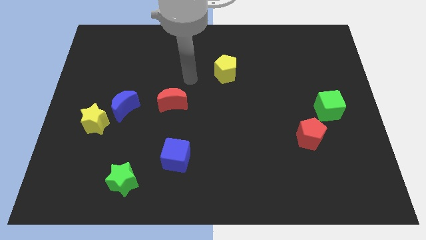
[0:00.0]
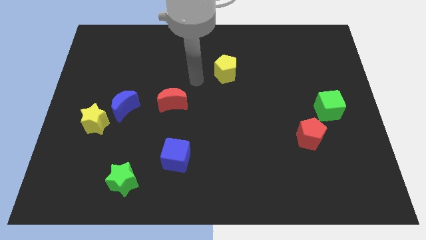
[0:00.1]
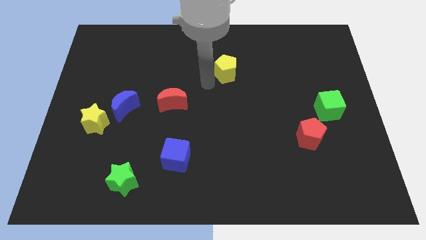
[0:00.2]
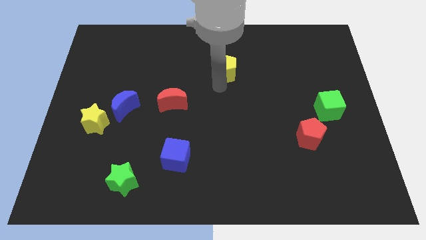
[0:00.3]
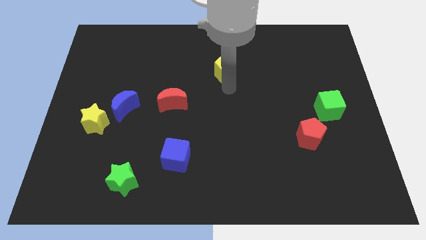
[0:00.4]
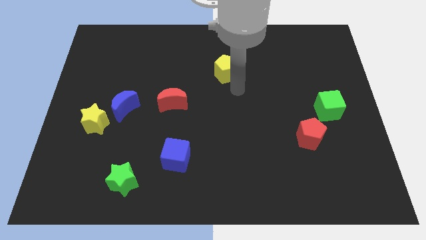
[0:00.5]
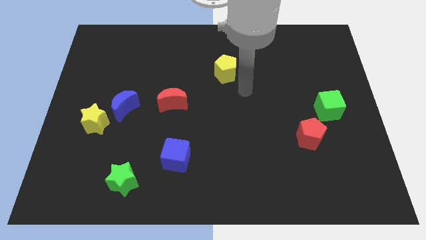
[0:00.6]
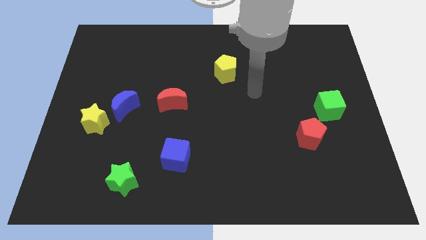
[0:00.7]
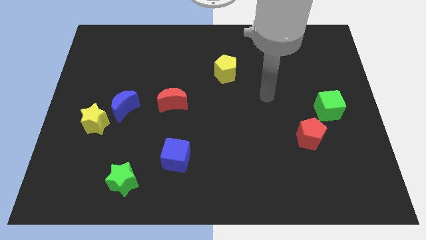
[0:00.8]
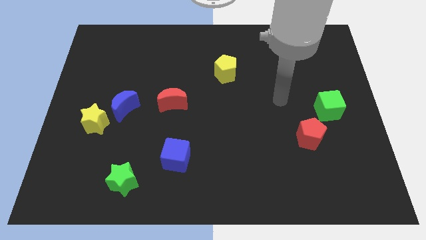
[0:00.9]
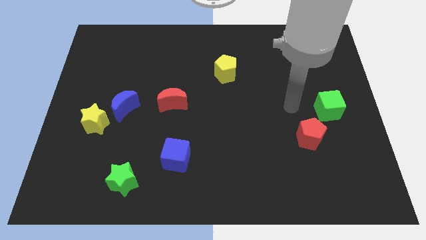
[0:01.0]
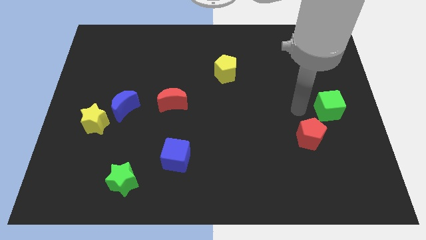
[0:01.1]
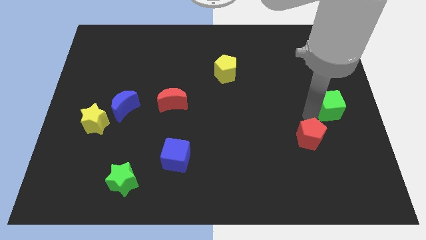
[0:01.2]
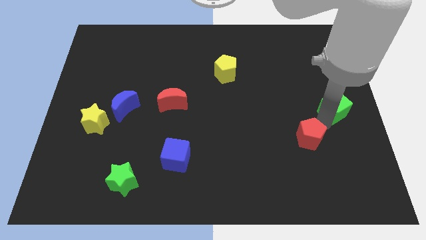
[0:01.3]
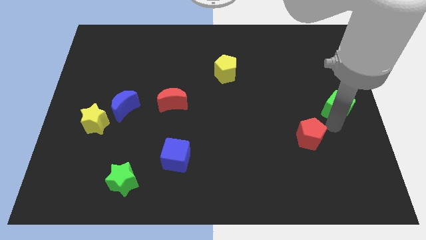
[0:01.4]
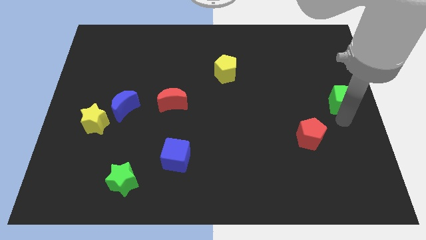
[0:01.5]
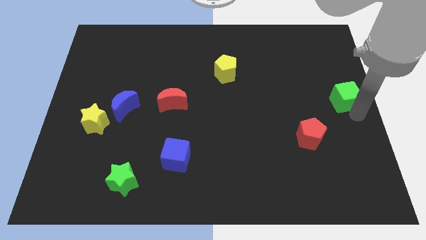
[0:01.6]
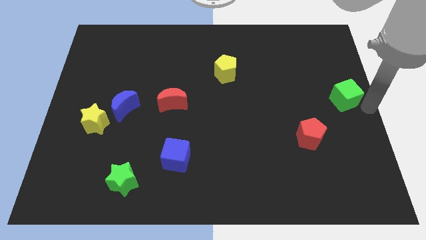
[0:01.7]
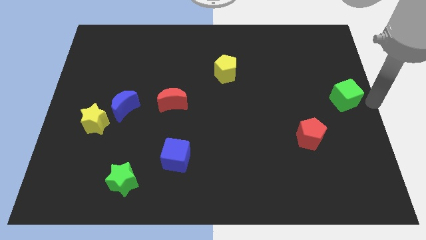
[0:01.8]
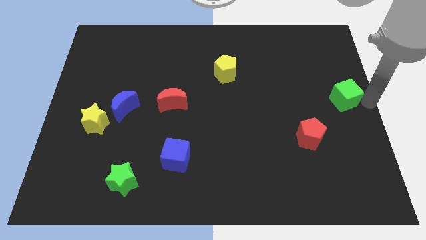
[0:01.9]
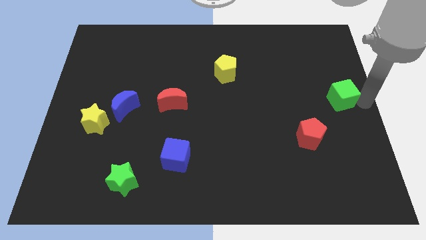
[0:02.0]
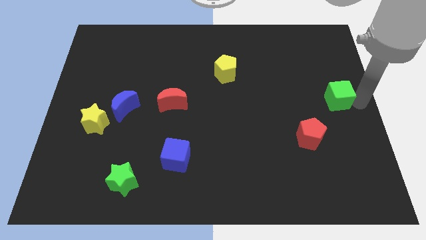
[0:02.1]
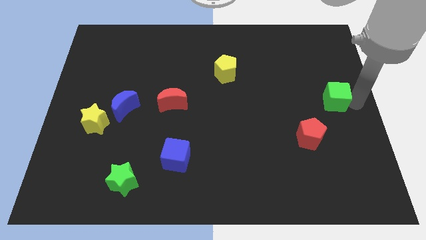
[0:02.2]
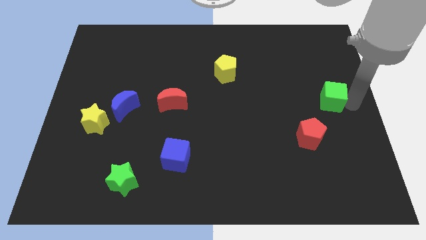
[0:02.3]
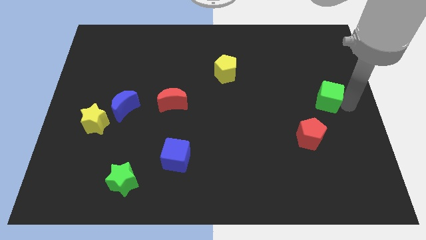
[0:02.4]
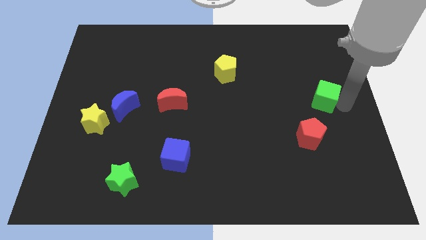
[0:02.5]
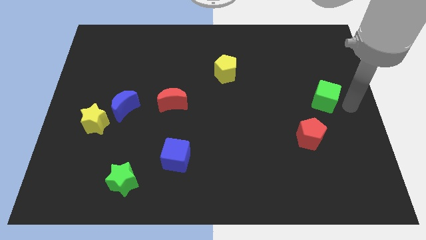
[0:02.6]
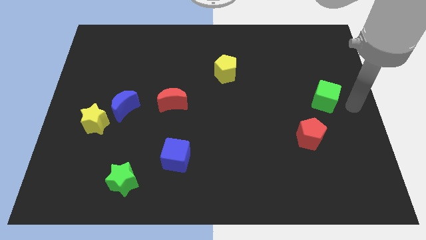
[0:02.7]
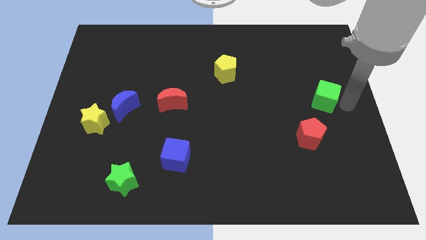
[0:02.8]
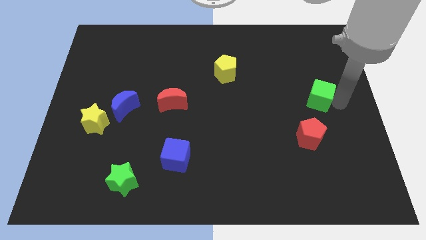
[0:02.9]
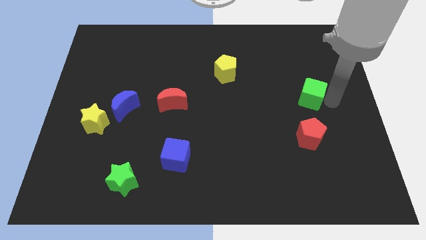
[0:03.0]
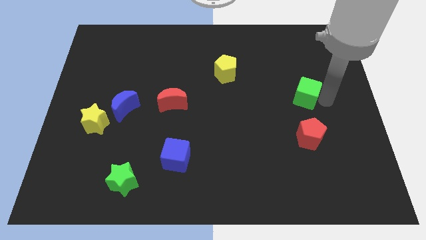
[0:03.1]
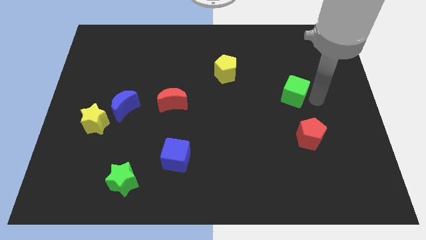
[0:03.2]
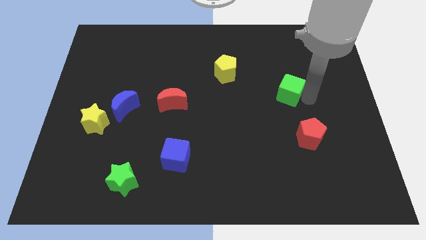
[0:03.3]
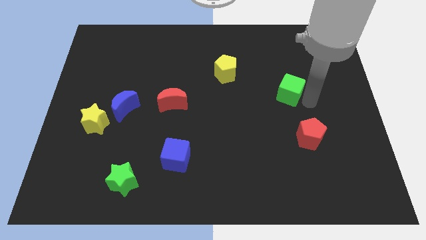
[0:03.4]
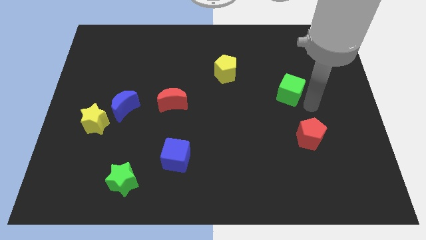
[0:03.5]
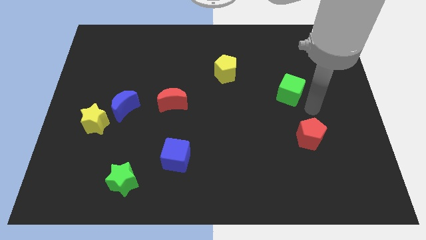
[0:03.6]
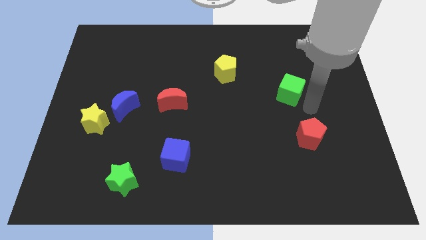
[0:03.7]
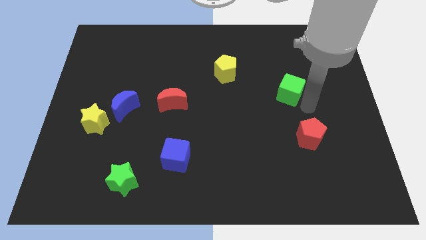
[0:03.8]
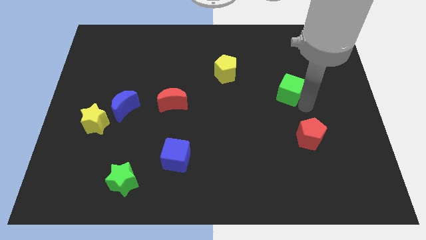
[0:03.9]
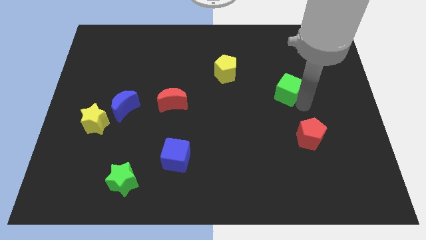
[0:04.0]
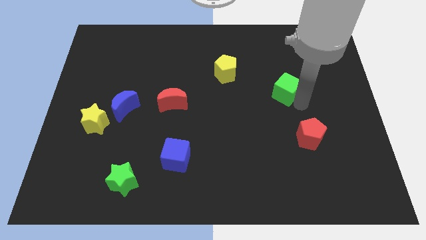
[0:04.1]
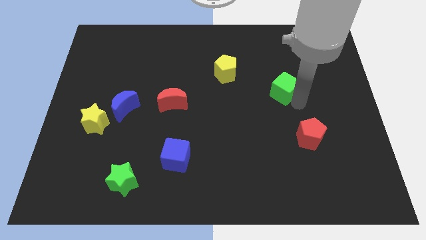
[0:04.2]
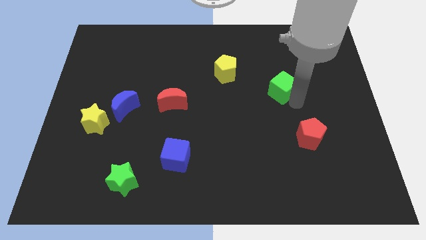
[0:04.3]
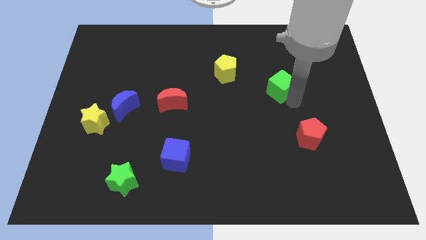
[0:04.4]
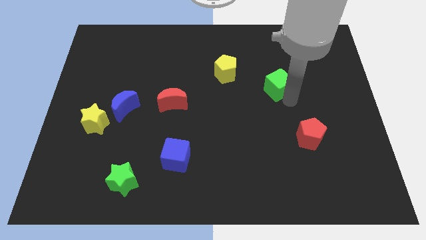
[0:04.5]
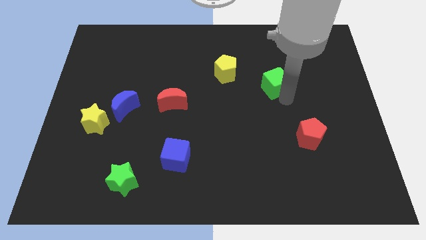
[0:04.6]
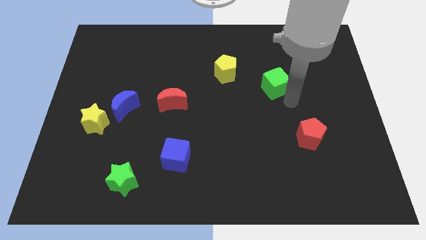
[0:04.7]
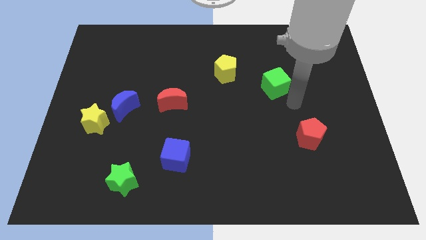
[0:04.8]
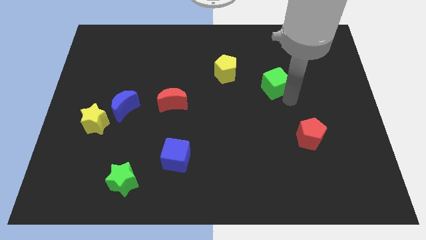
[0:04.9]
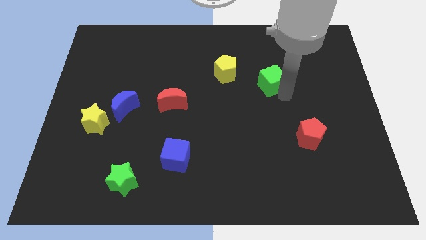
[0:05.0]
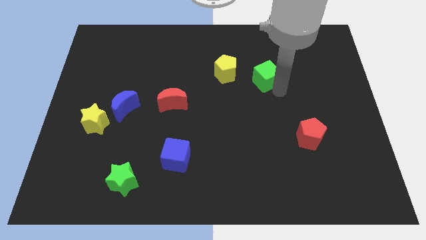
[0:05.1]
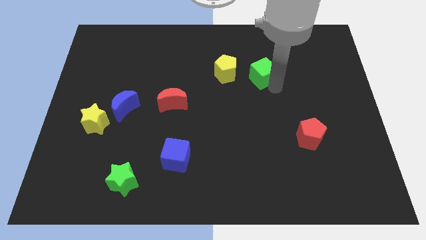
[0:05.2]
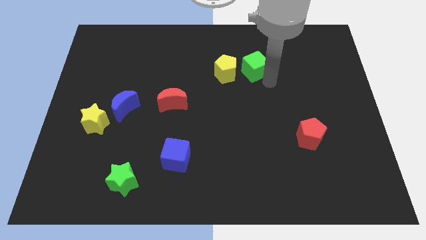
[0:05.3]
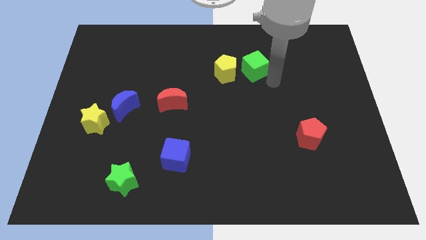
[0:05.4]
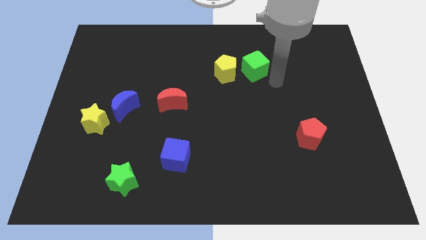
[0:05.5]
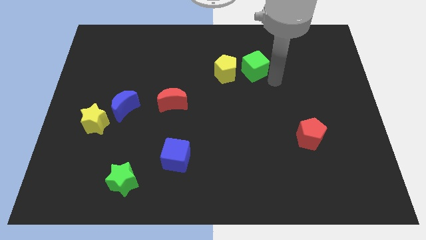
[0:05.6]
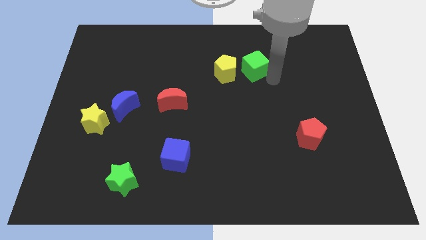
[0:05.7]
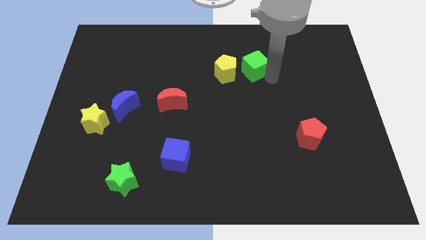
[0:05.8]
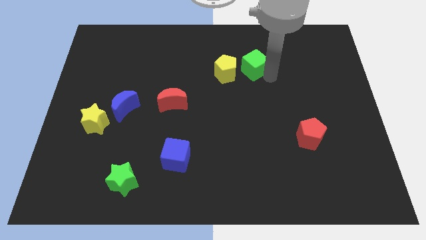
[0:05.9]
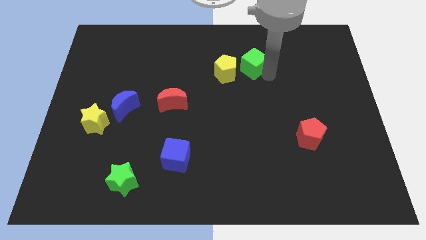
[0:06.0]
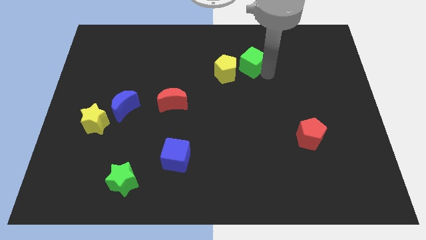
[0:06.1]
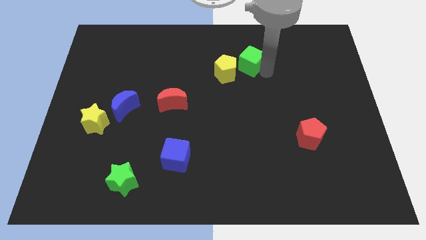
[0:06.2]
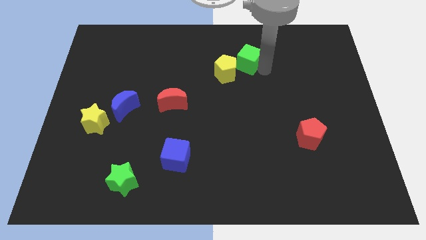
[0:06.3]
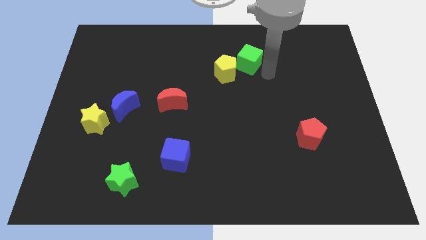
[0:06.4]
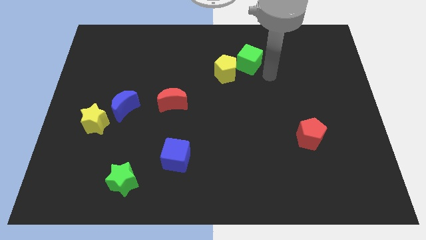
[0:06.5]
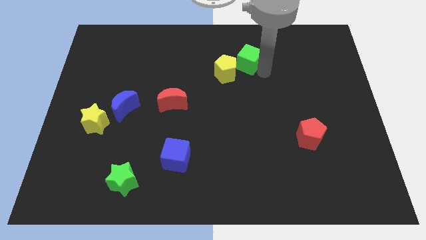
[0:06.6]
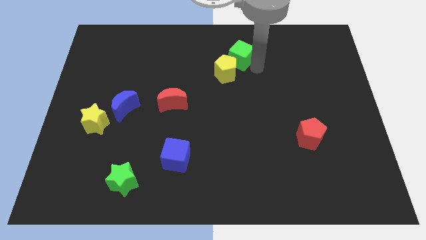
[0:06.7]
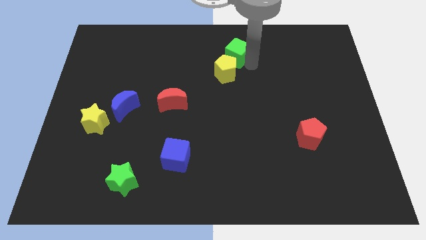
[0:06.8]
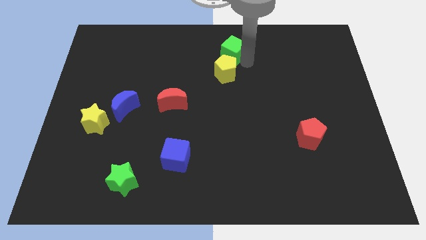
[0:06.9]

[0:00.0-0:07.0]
move the green cube to the towards your base
